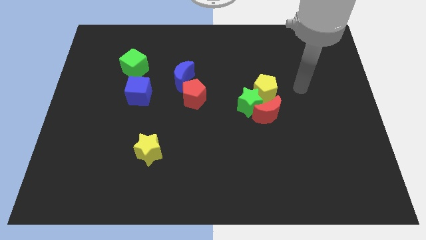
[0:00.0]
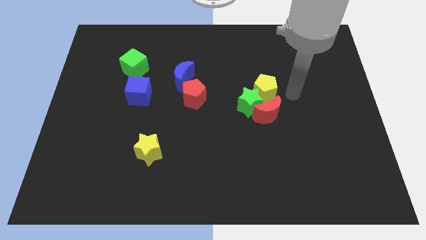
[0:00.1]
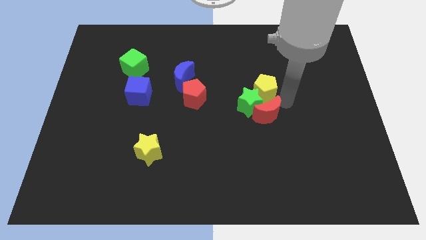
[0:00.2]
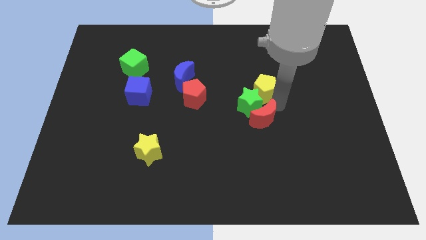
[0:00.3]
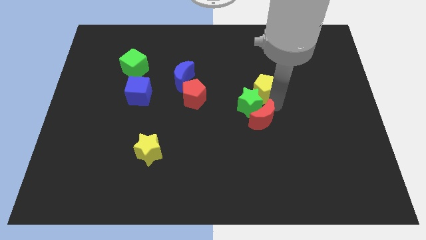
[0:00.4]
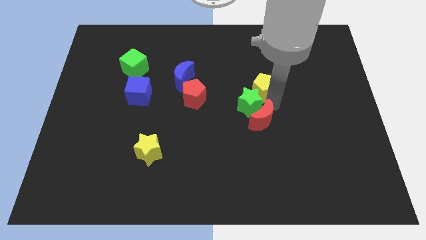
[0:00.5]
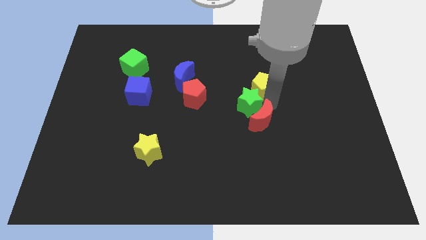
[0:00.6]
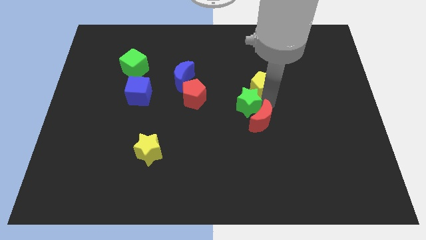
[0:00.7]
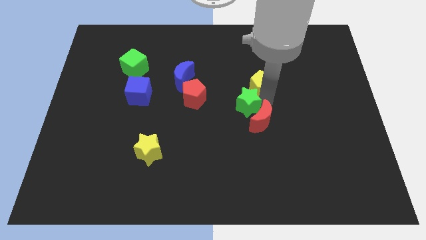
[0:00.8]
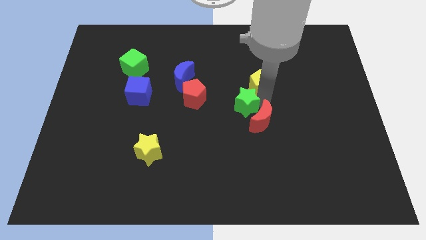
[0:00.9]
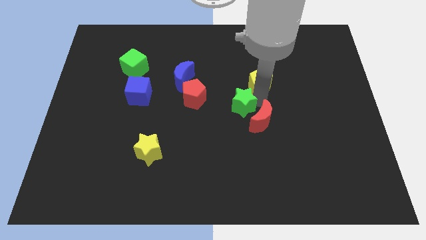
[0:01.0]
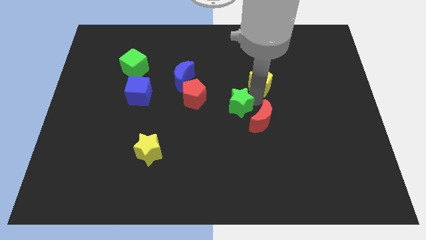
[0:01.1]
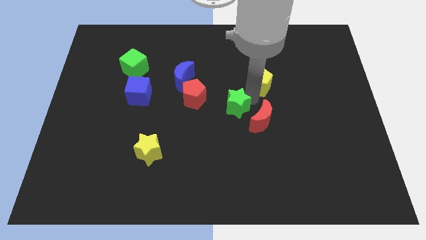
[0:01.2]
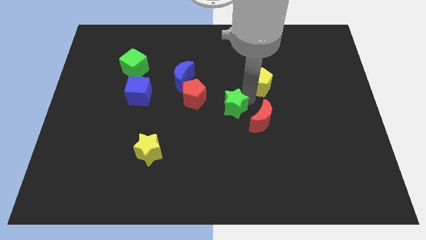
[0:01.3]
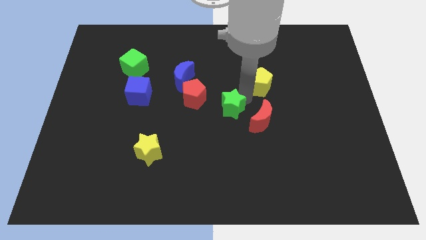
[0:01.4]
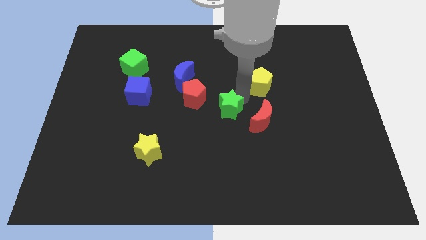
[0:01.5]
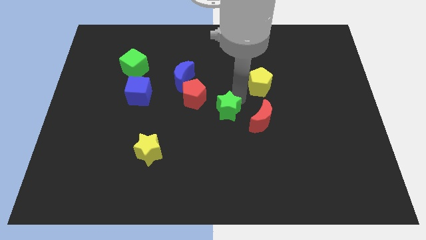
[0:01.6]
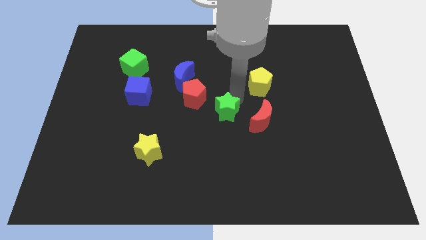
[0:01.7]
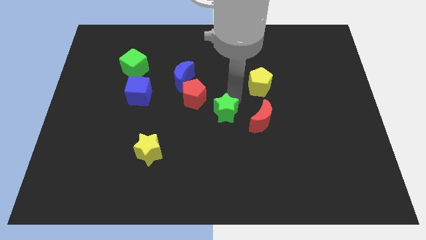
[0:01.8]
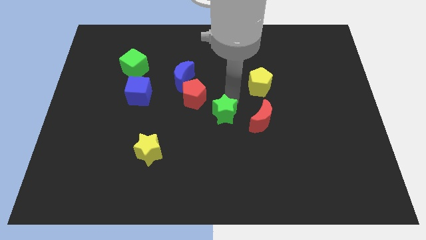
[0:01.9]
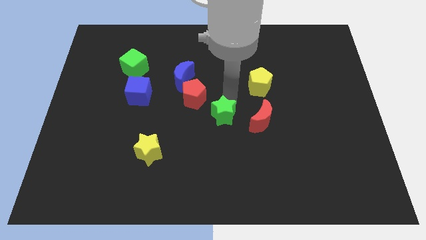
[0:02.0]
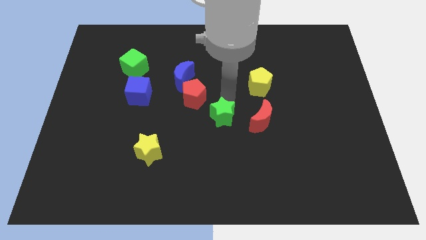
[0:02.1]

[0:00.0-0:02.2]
separate the green star from the red moon and yellow pentagon

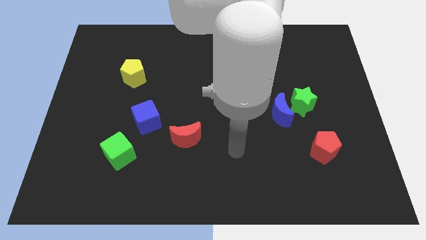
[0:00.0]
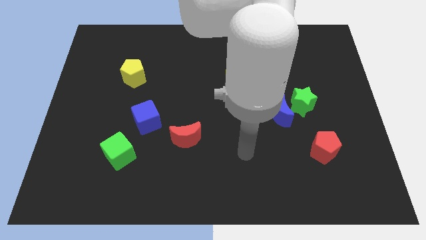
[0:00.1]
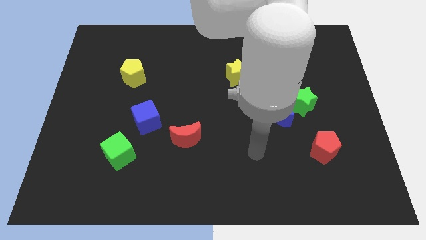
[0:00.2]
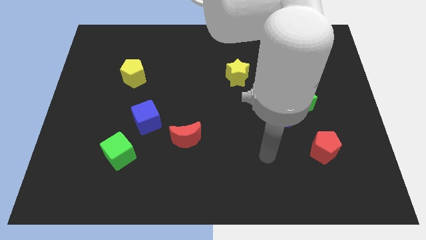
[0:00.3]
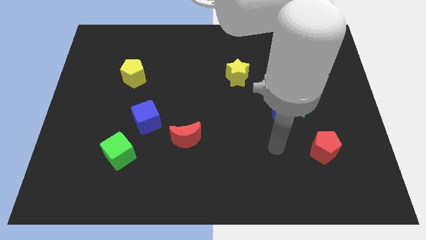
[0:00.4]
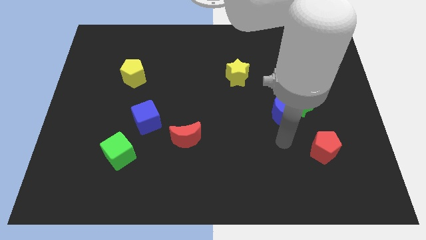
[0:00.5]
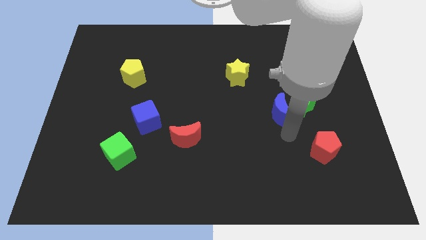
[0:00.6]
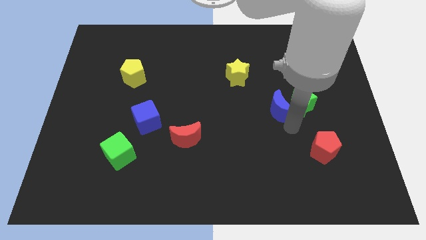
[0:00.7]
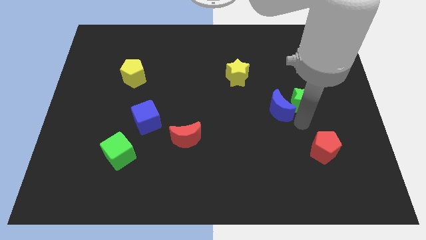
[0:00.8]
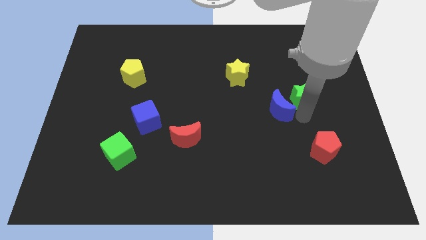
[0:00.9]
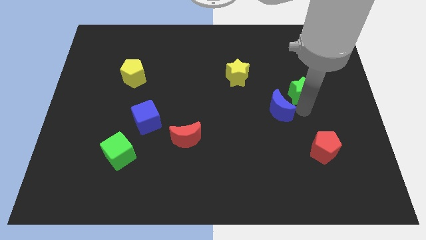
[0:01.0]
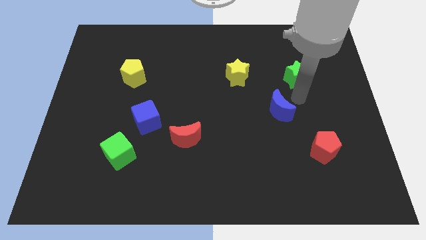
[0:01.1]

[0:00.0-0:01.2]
move the blue moon away from the green star

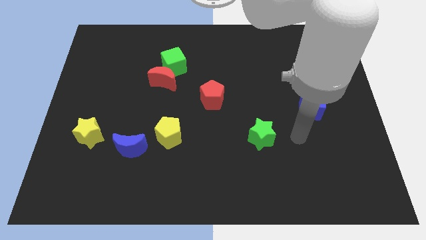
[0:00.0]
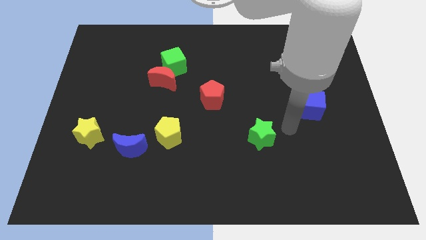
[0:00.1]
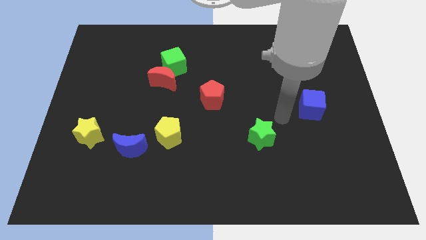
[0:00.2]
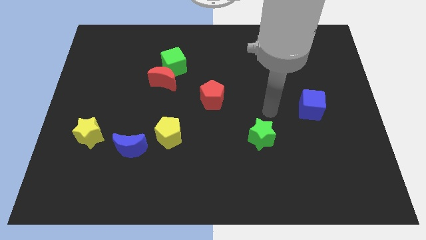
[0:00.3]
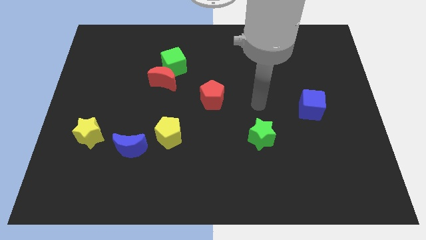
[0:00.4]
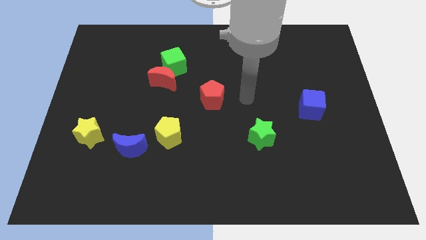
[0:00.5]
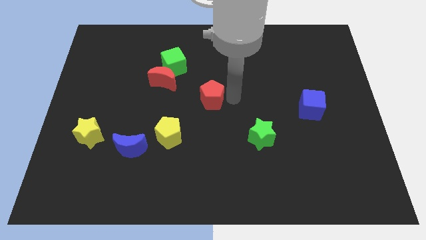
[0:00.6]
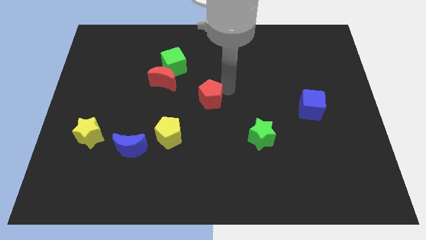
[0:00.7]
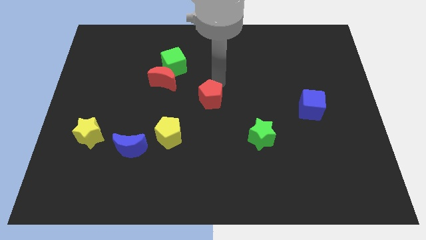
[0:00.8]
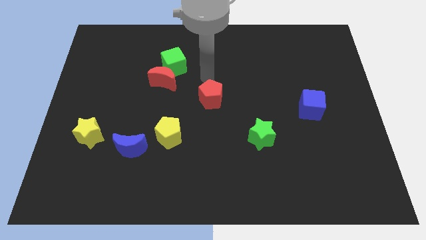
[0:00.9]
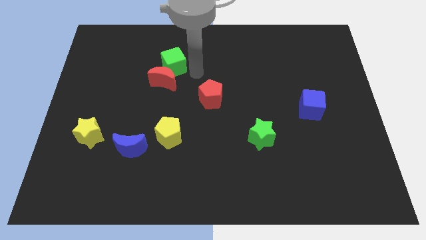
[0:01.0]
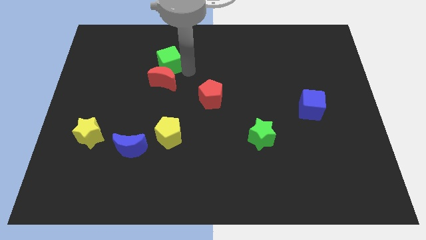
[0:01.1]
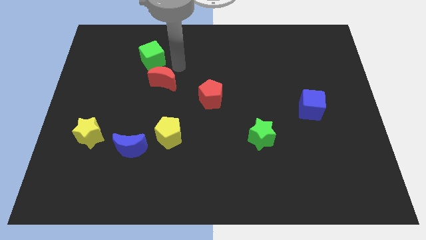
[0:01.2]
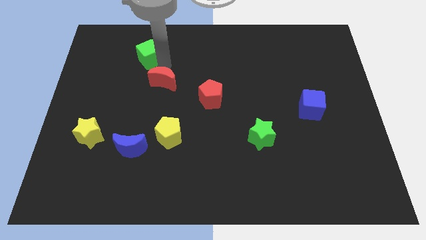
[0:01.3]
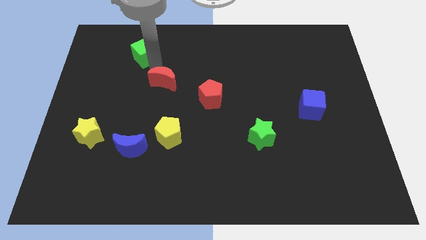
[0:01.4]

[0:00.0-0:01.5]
separate the red moon from the green cube

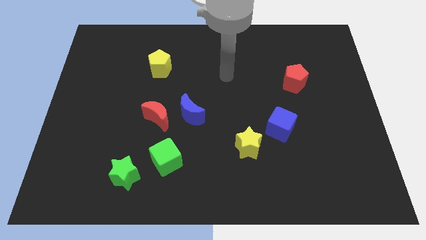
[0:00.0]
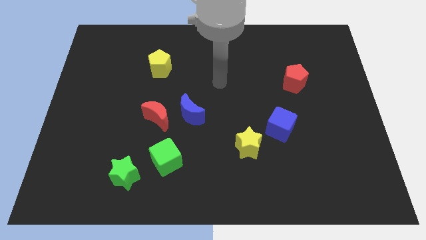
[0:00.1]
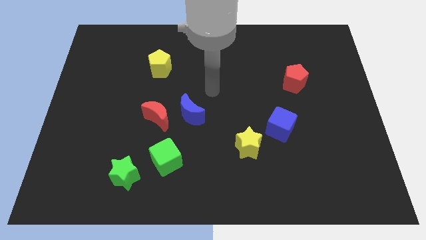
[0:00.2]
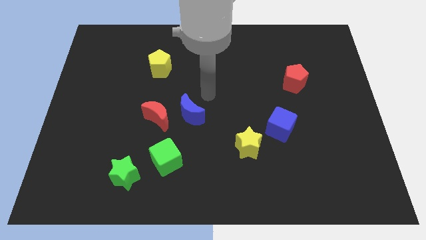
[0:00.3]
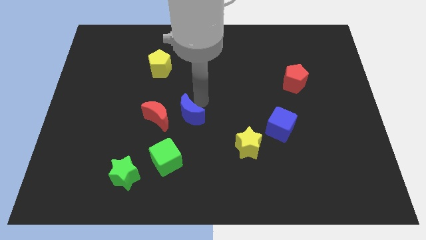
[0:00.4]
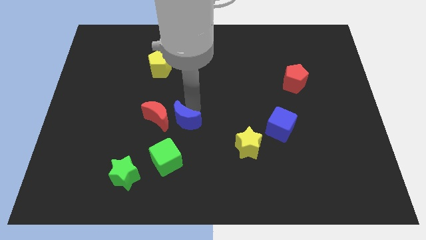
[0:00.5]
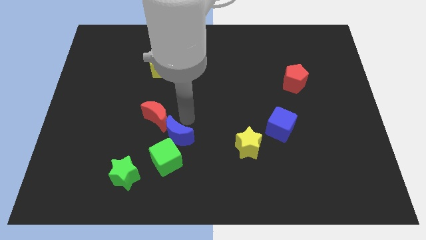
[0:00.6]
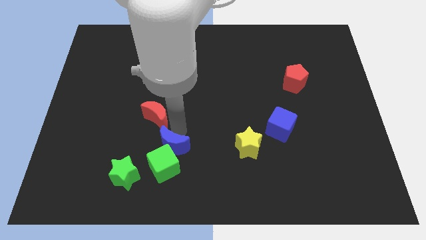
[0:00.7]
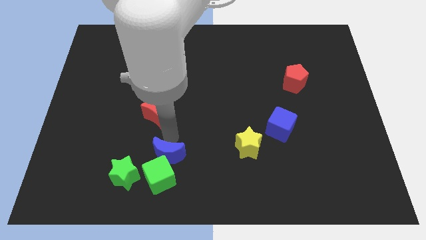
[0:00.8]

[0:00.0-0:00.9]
move the red moon away from the blue moon

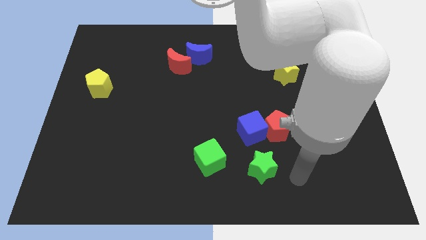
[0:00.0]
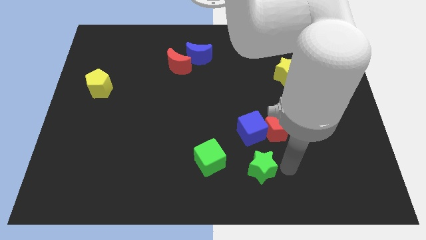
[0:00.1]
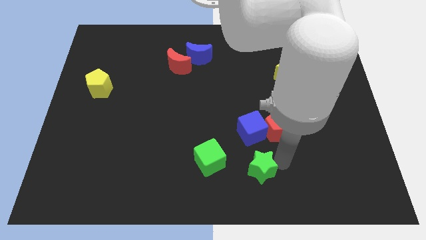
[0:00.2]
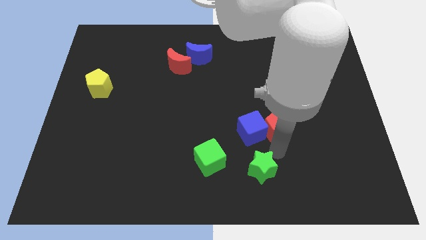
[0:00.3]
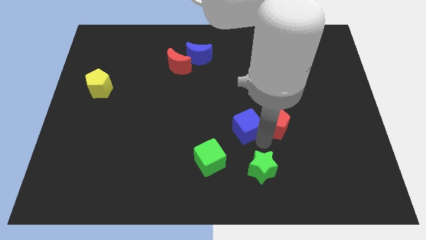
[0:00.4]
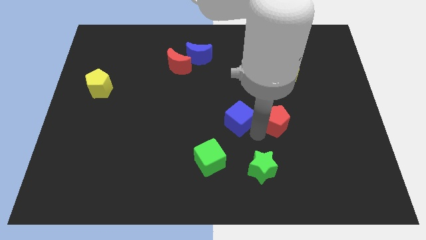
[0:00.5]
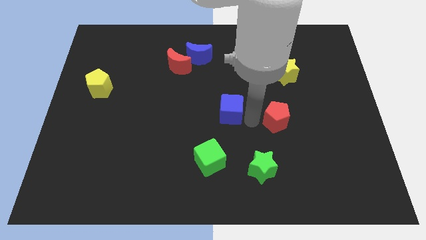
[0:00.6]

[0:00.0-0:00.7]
pull the red pentagon apart from the blue cube

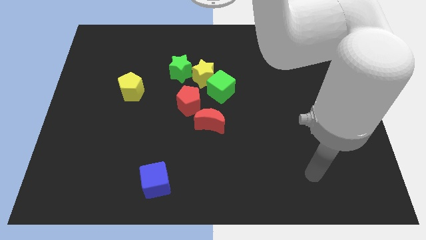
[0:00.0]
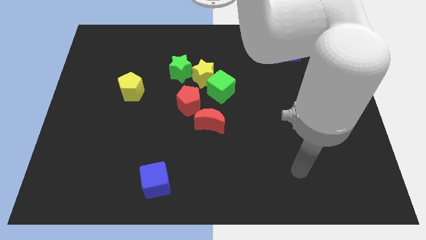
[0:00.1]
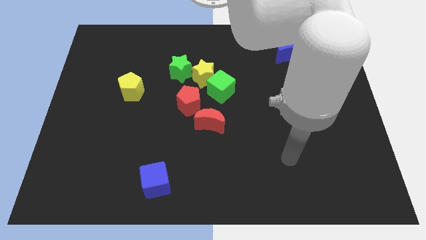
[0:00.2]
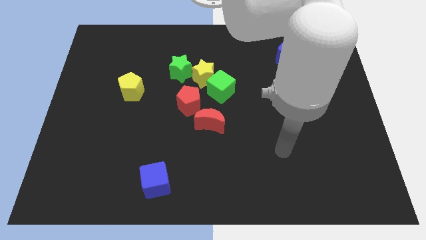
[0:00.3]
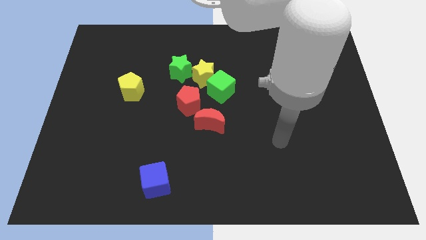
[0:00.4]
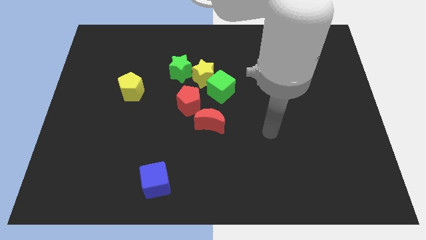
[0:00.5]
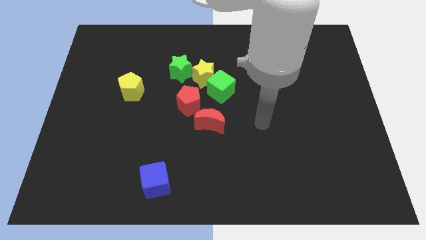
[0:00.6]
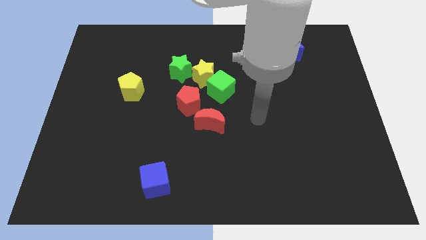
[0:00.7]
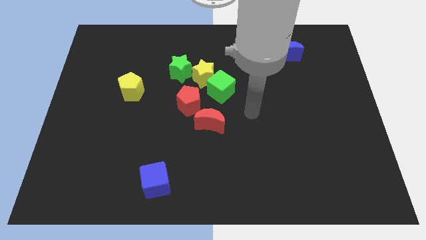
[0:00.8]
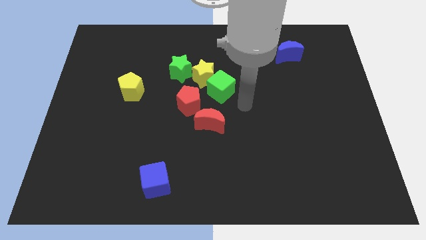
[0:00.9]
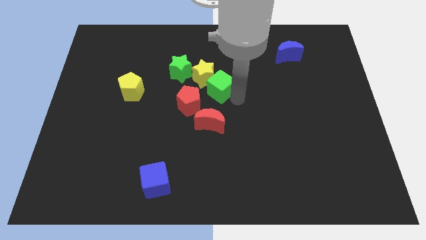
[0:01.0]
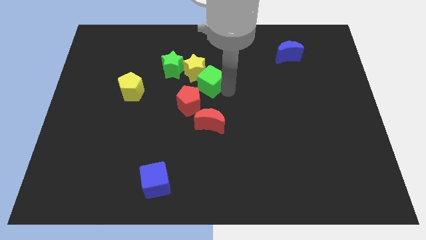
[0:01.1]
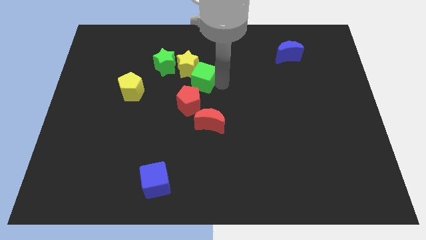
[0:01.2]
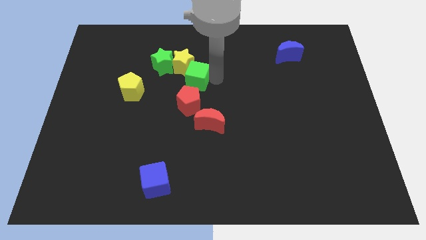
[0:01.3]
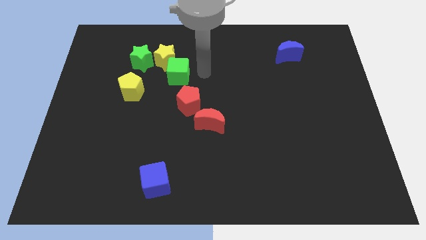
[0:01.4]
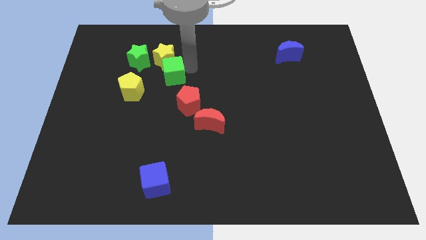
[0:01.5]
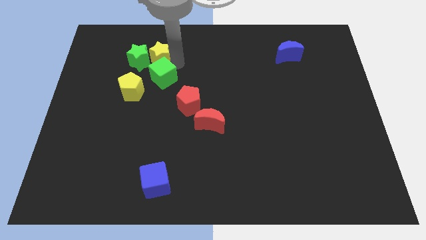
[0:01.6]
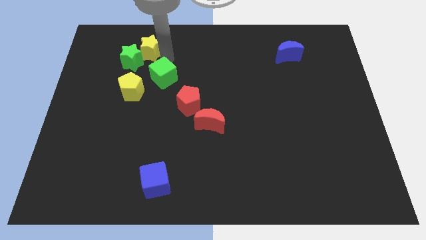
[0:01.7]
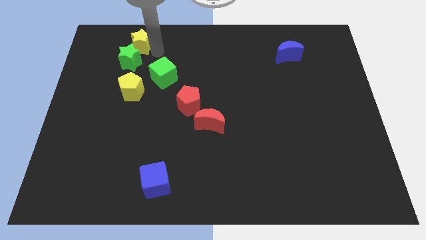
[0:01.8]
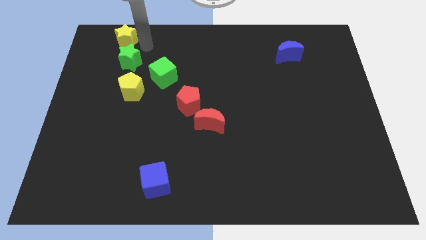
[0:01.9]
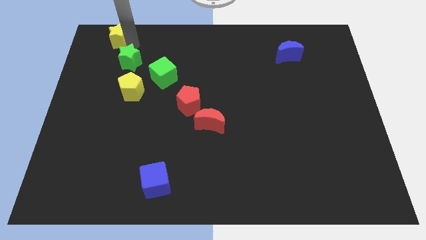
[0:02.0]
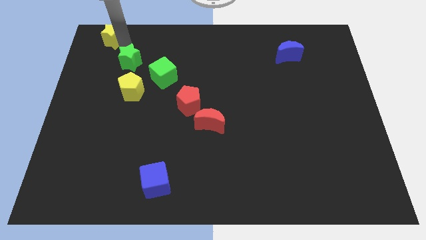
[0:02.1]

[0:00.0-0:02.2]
move the green star away from the yellow star

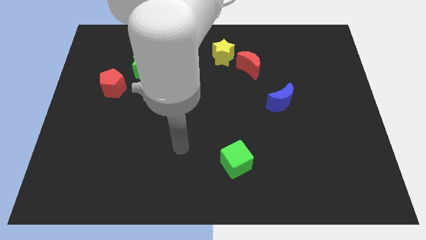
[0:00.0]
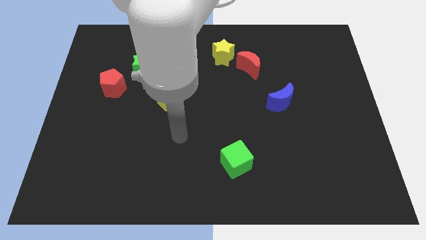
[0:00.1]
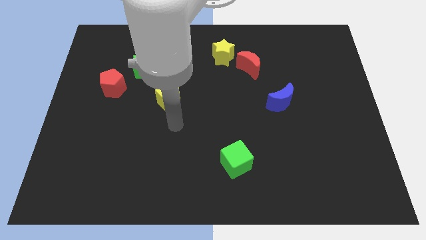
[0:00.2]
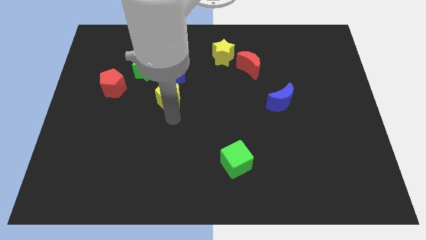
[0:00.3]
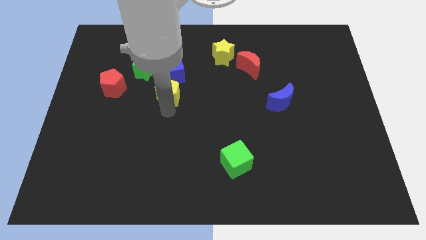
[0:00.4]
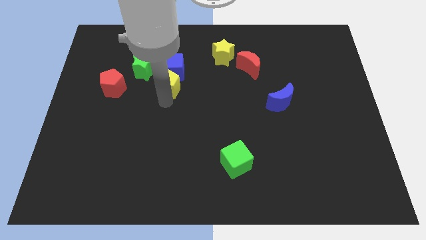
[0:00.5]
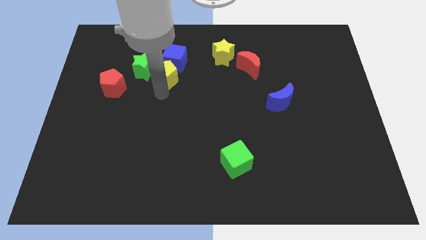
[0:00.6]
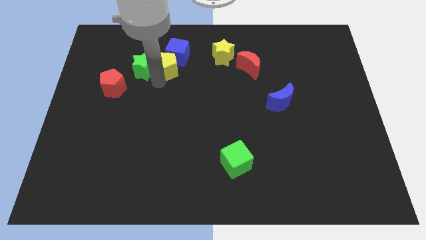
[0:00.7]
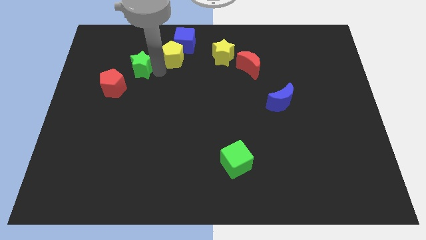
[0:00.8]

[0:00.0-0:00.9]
move the blue cube away from the green star and yellow pentagon
